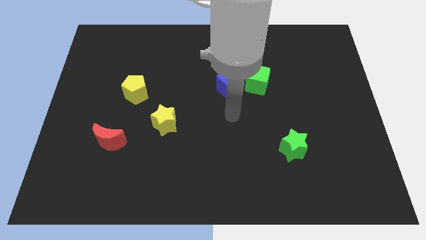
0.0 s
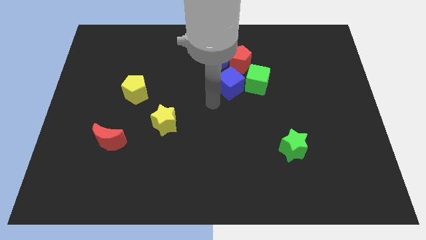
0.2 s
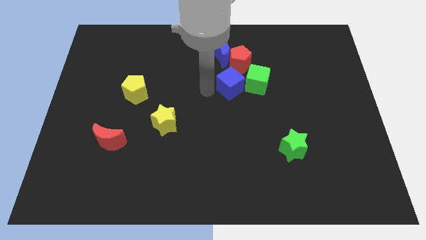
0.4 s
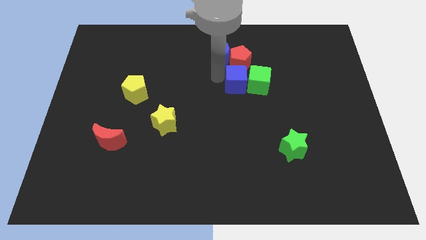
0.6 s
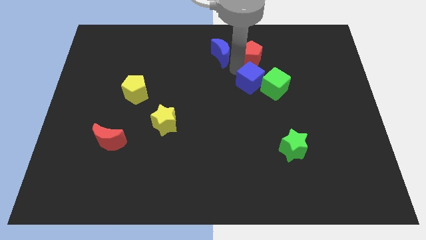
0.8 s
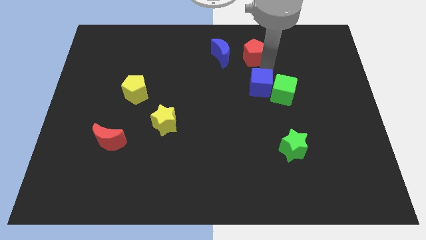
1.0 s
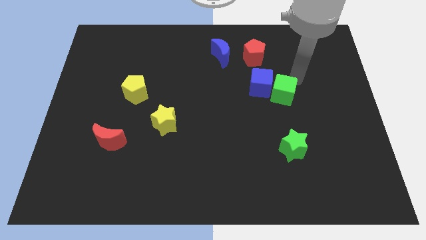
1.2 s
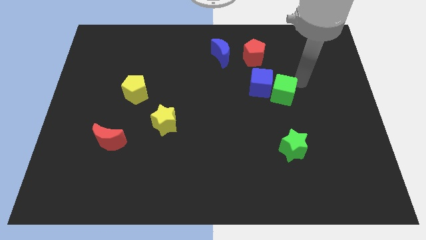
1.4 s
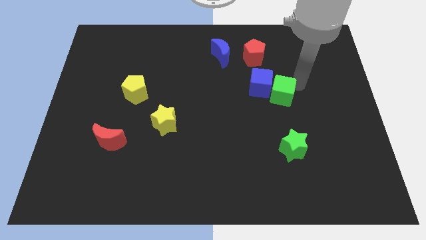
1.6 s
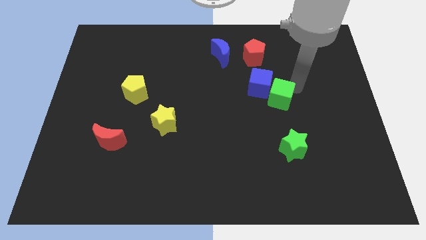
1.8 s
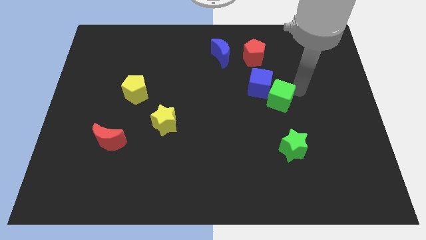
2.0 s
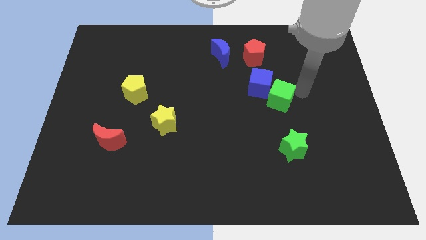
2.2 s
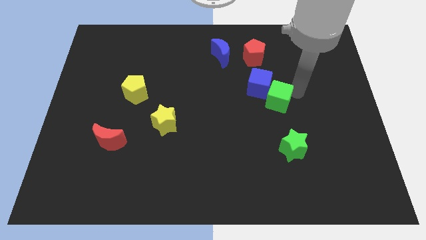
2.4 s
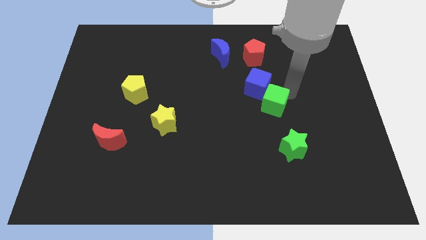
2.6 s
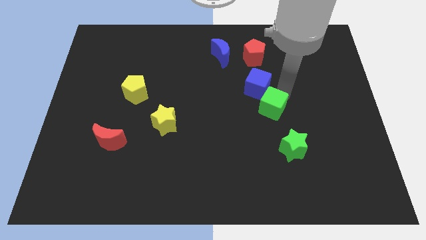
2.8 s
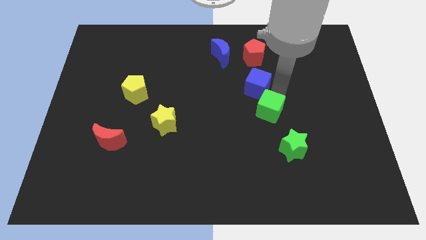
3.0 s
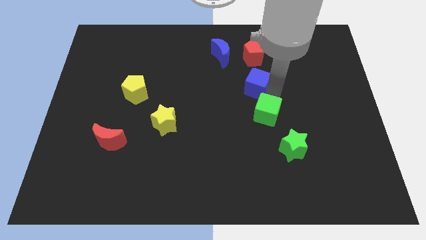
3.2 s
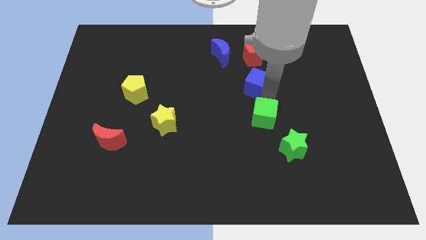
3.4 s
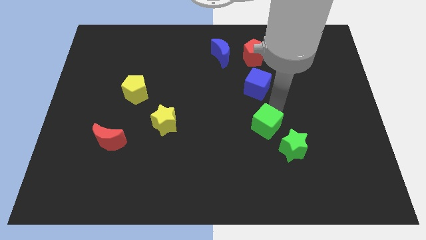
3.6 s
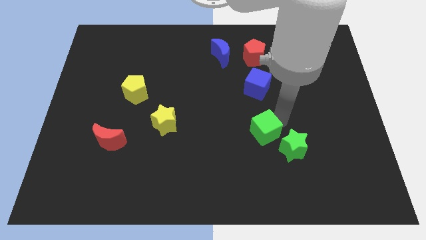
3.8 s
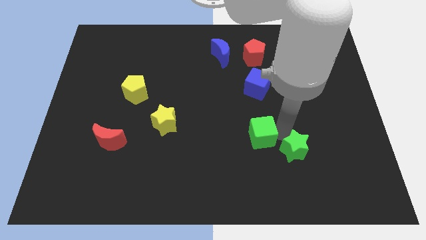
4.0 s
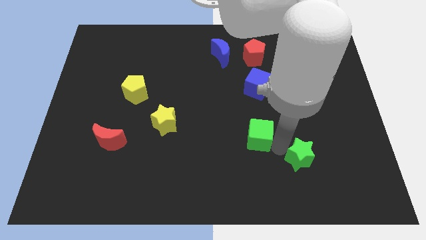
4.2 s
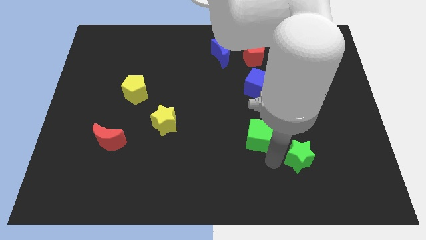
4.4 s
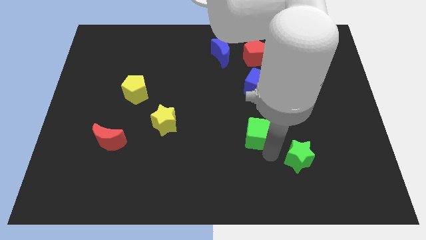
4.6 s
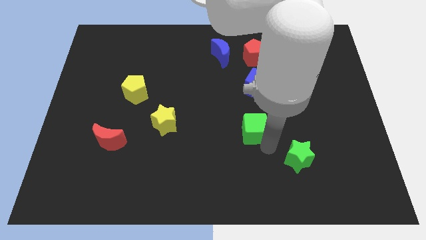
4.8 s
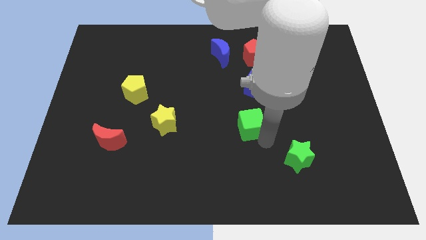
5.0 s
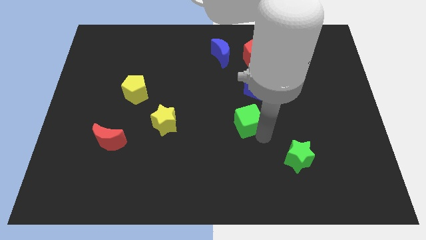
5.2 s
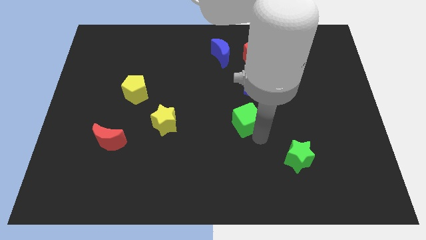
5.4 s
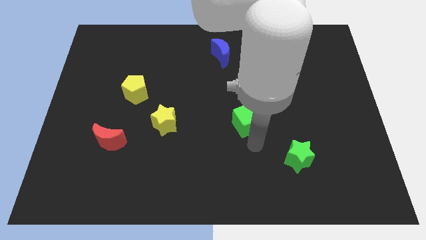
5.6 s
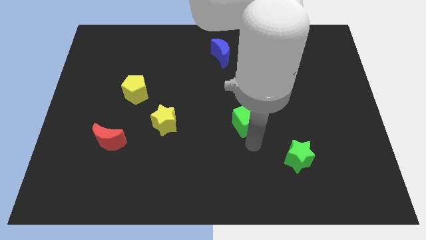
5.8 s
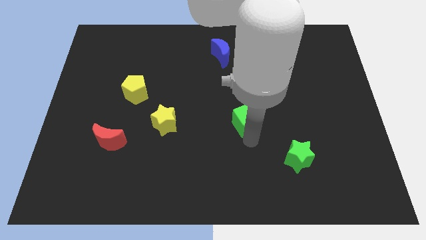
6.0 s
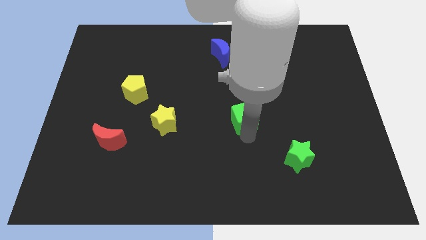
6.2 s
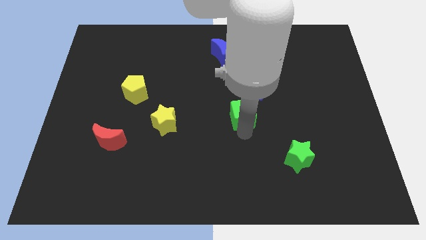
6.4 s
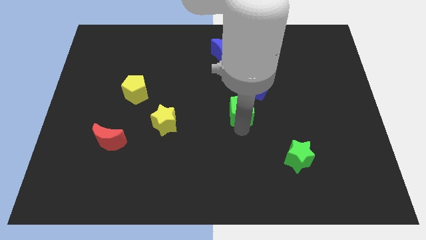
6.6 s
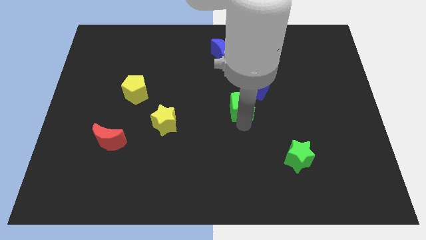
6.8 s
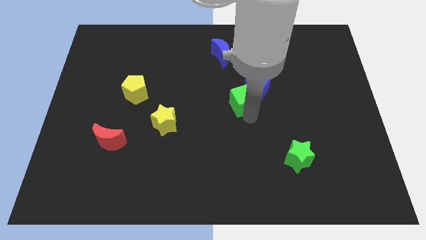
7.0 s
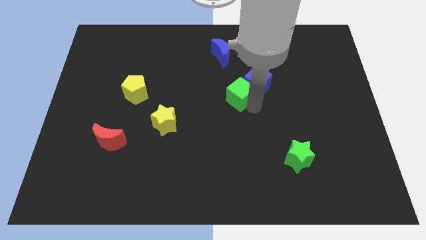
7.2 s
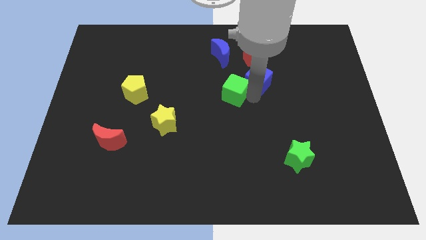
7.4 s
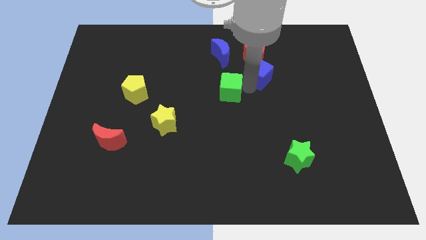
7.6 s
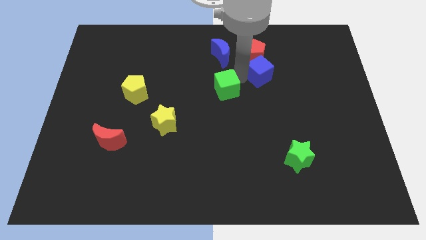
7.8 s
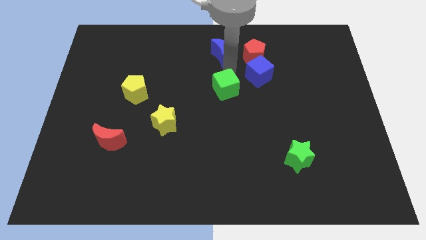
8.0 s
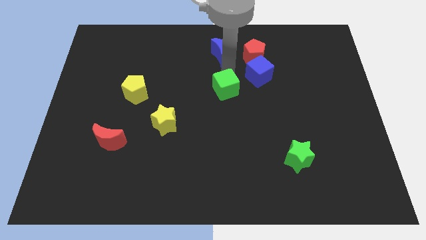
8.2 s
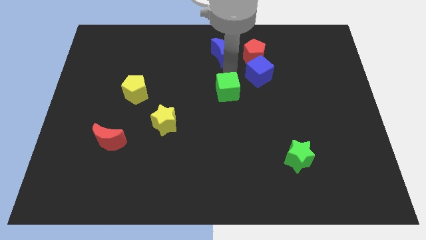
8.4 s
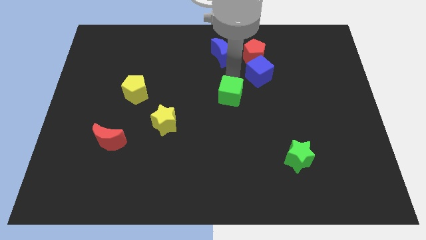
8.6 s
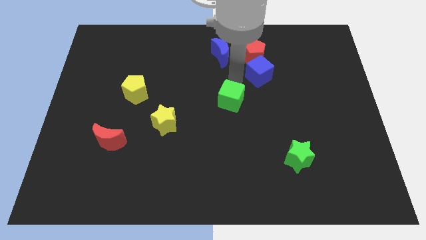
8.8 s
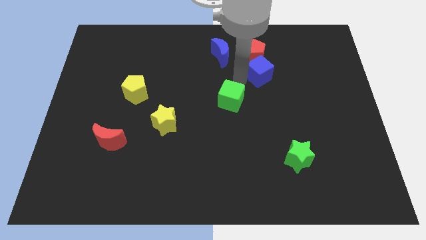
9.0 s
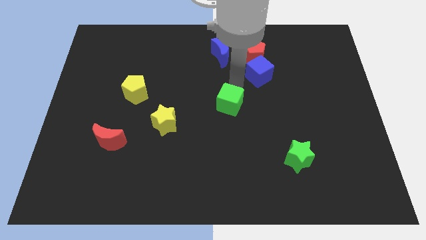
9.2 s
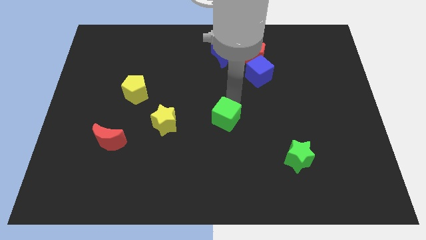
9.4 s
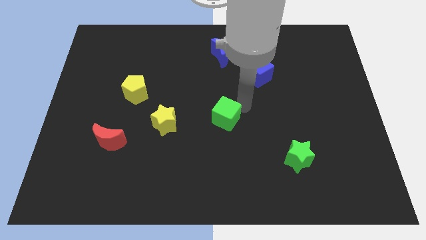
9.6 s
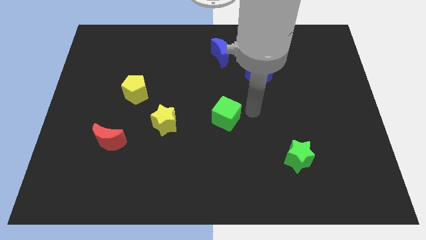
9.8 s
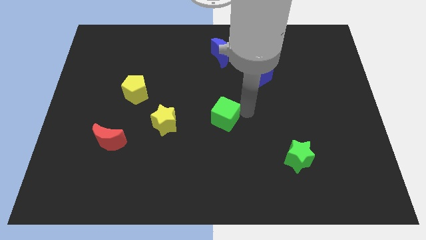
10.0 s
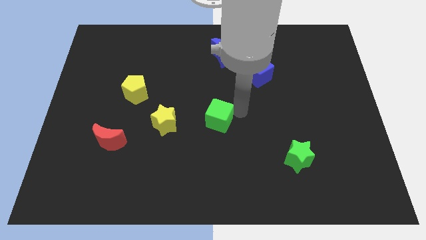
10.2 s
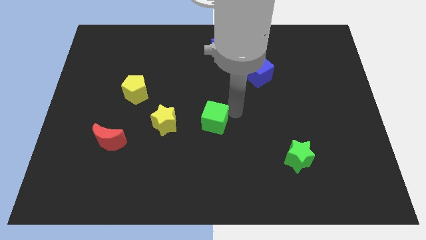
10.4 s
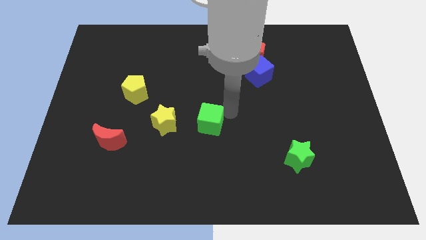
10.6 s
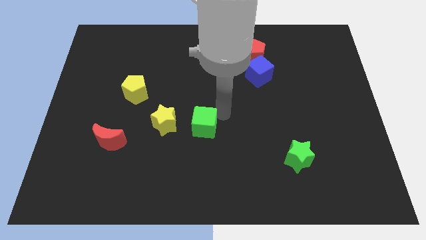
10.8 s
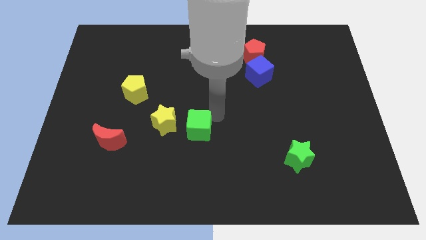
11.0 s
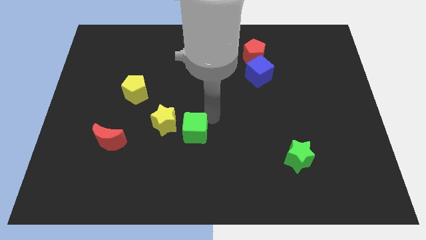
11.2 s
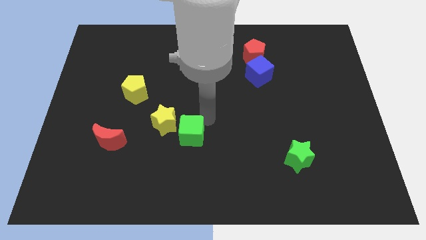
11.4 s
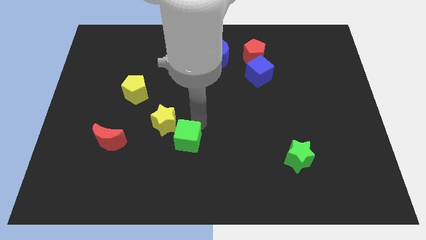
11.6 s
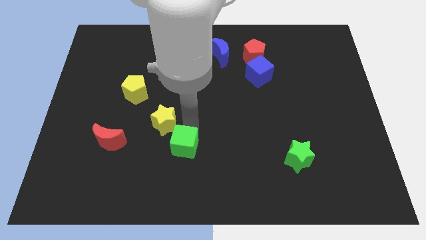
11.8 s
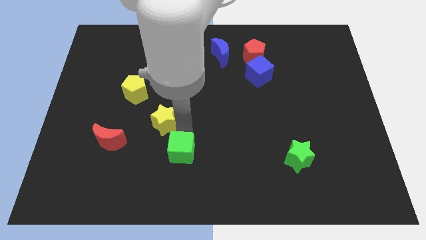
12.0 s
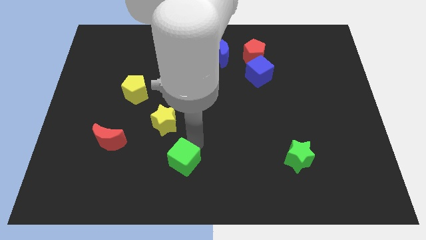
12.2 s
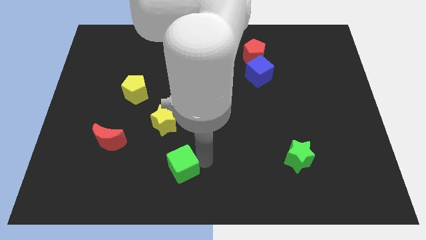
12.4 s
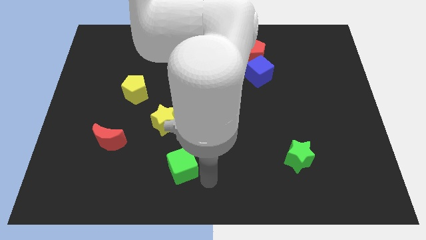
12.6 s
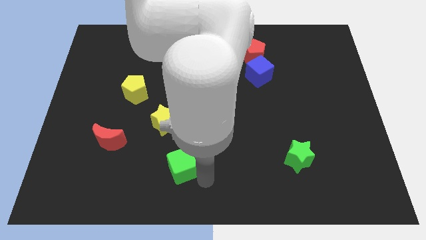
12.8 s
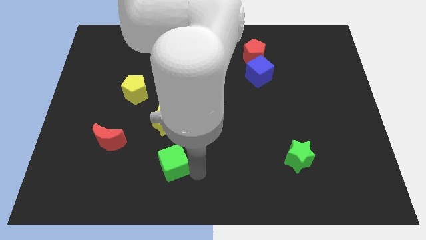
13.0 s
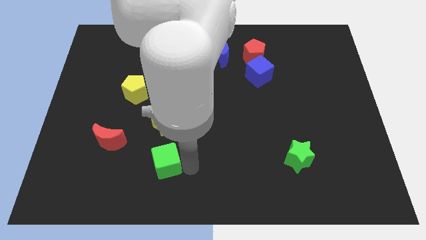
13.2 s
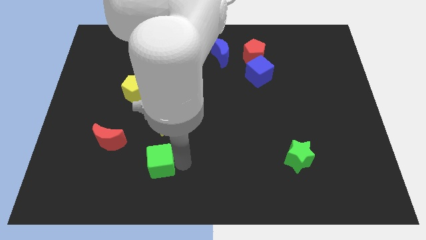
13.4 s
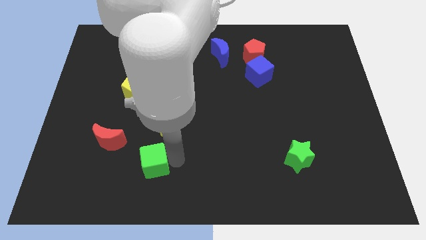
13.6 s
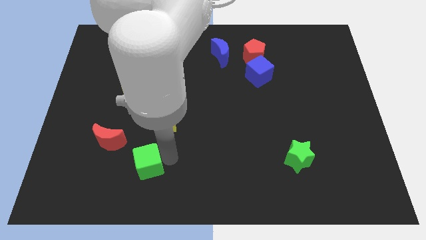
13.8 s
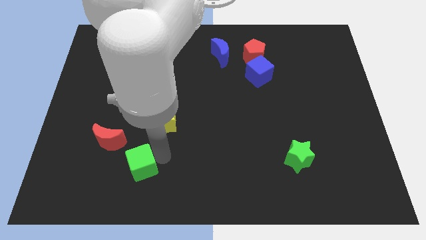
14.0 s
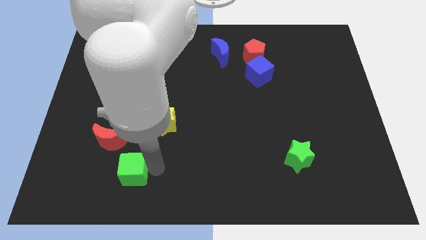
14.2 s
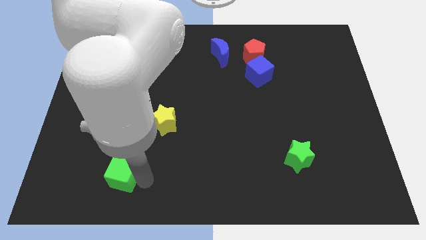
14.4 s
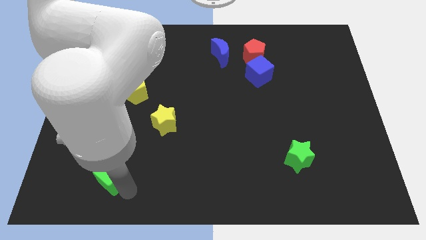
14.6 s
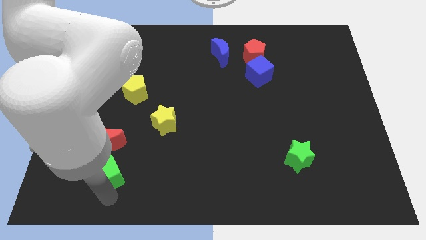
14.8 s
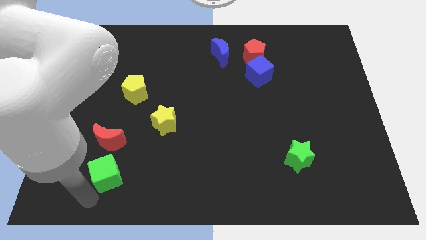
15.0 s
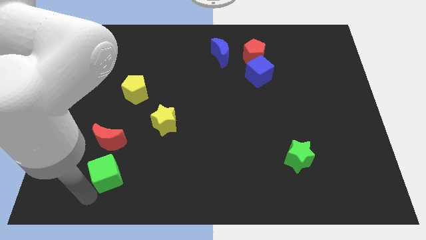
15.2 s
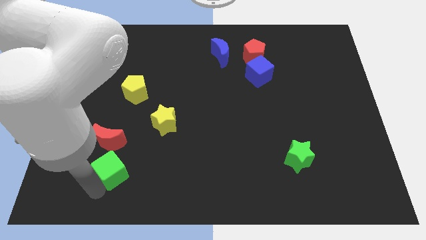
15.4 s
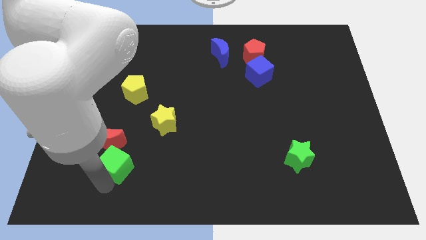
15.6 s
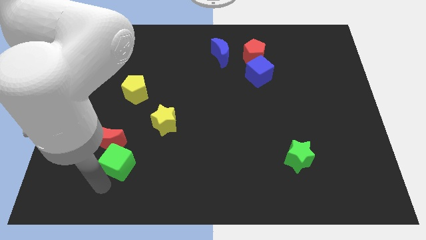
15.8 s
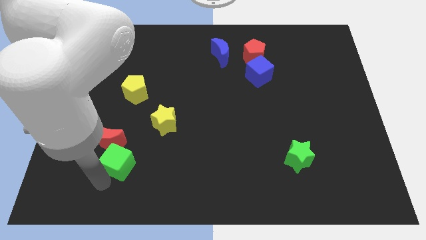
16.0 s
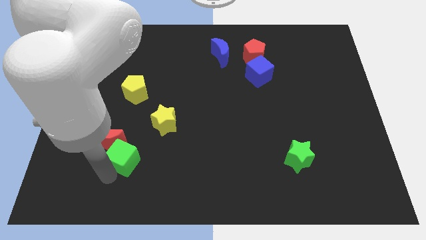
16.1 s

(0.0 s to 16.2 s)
put the green cube to the bottom left side of the yellow star

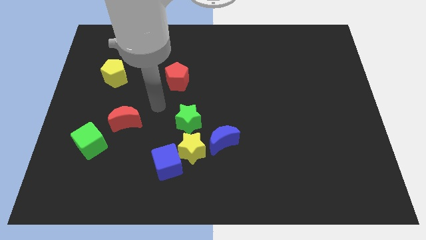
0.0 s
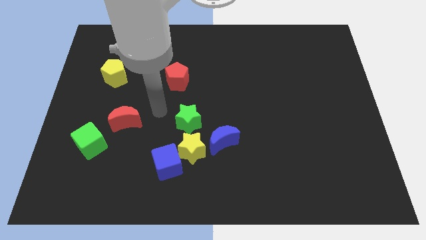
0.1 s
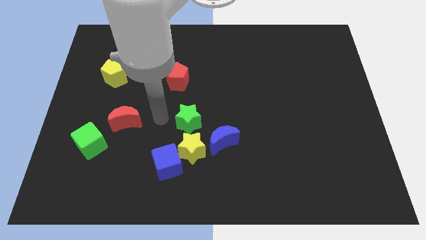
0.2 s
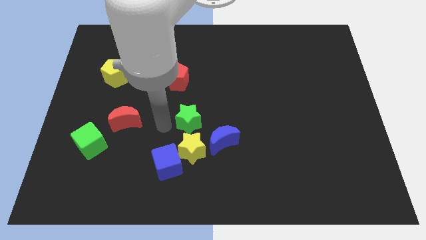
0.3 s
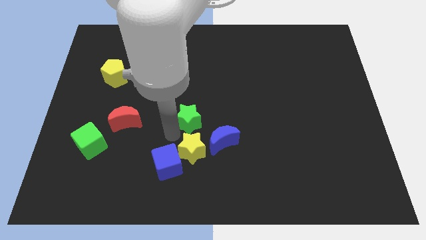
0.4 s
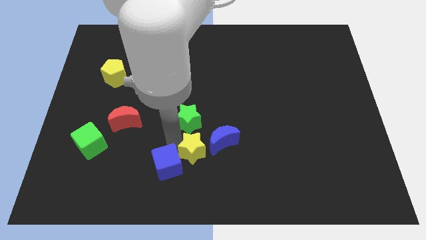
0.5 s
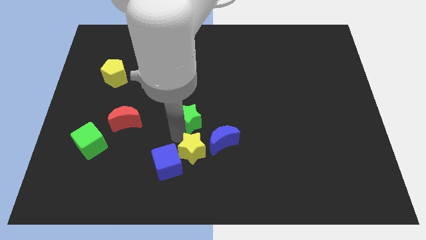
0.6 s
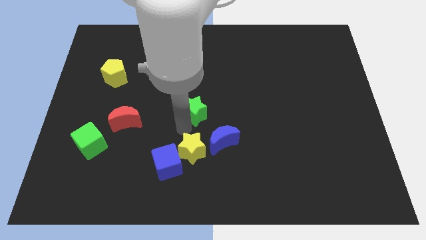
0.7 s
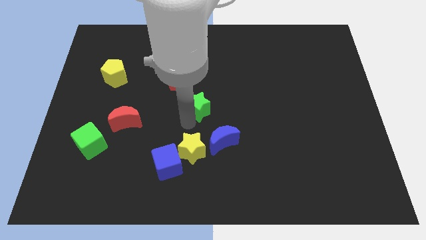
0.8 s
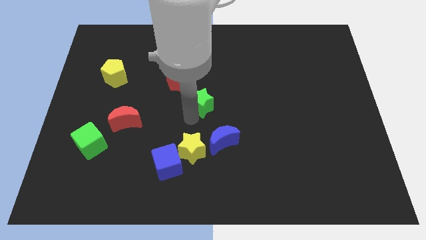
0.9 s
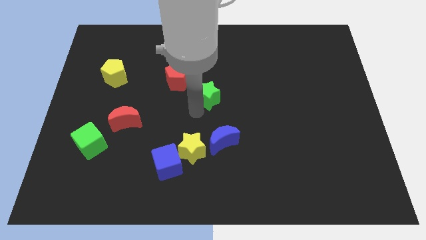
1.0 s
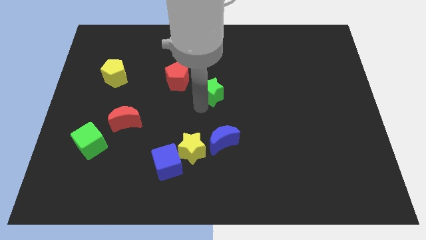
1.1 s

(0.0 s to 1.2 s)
slide the green star to the right of the red pentagon
